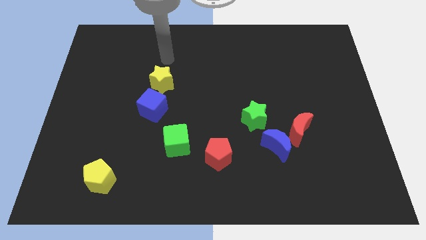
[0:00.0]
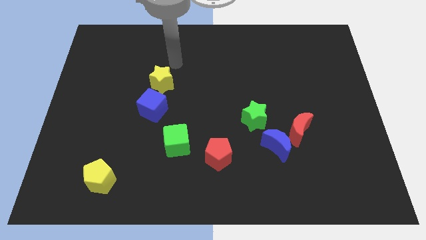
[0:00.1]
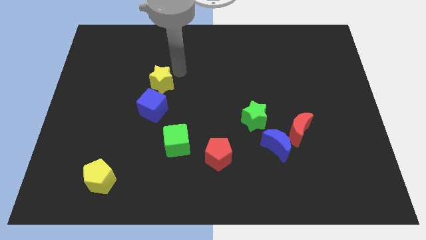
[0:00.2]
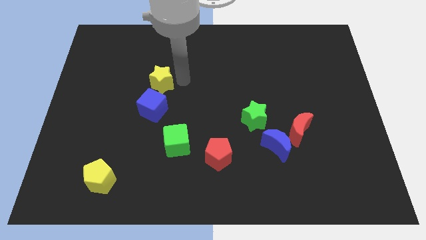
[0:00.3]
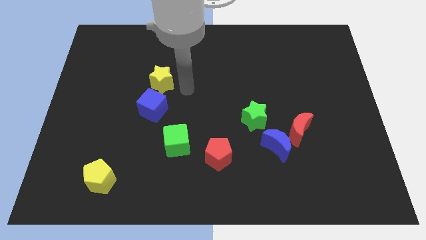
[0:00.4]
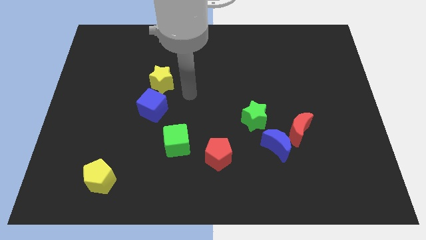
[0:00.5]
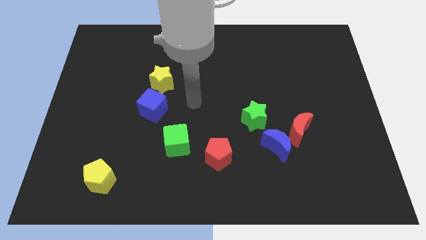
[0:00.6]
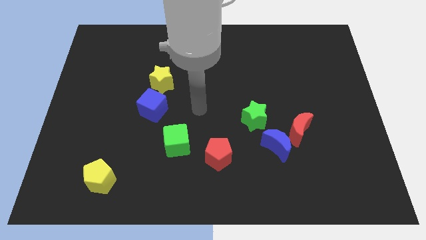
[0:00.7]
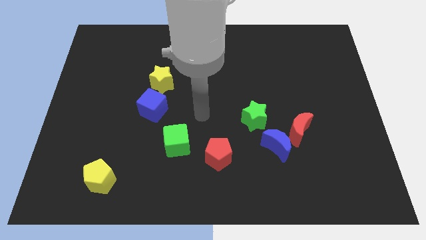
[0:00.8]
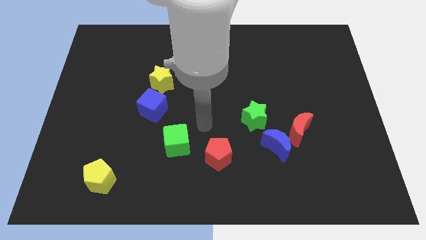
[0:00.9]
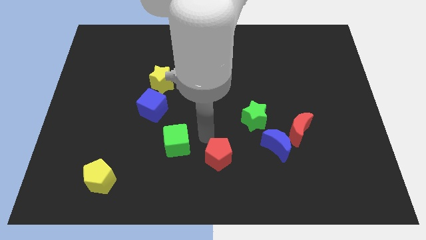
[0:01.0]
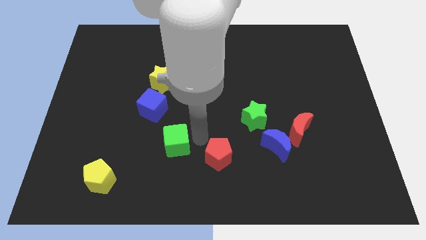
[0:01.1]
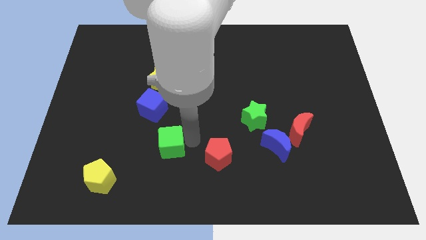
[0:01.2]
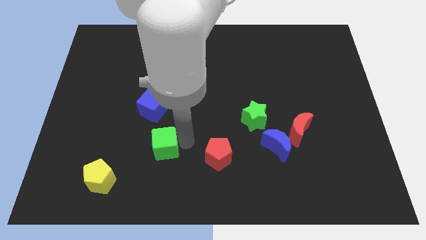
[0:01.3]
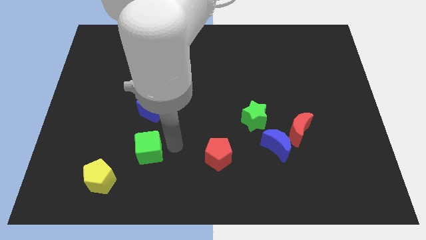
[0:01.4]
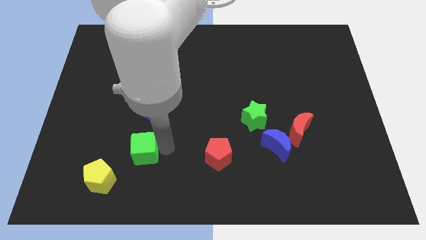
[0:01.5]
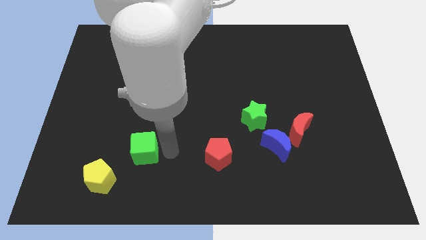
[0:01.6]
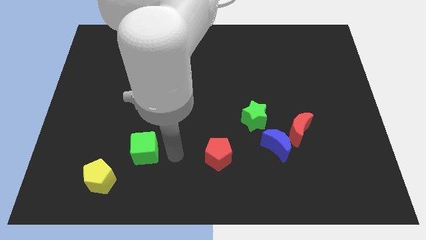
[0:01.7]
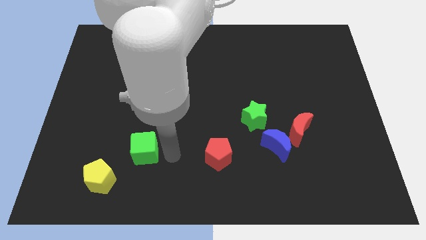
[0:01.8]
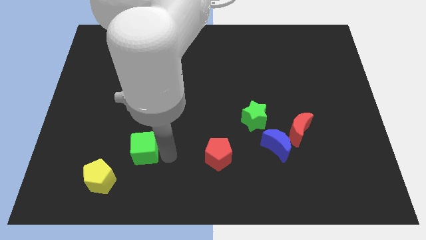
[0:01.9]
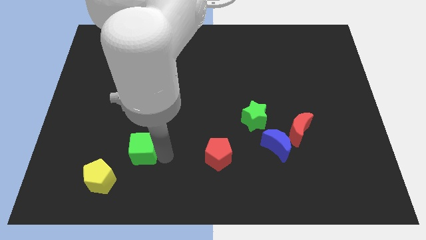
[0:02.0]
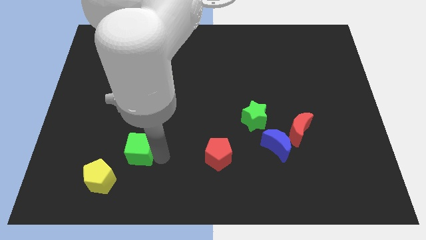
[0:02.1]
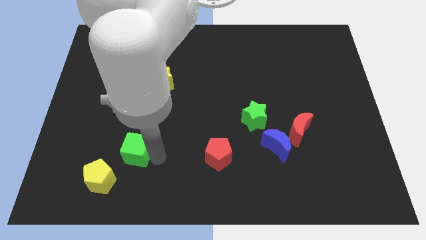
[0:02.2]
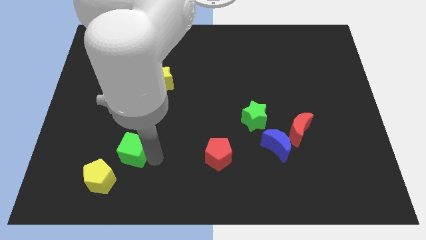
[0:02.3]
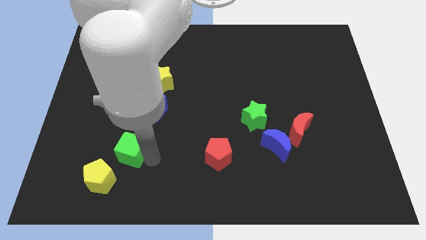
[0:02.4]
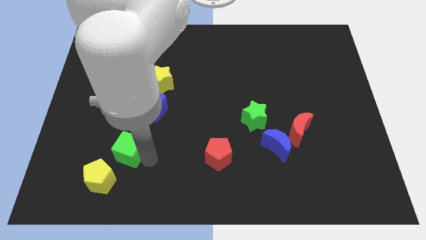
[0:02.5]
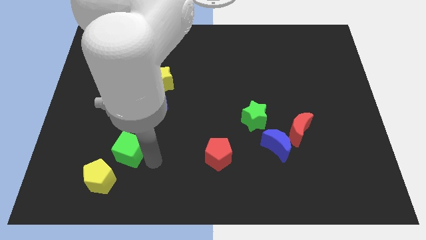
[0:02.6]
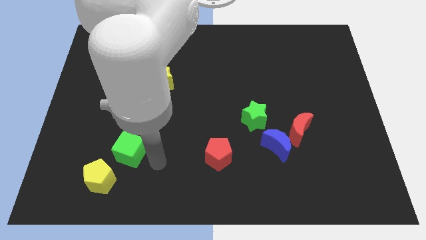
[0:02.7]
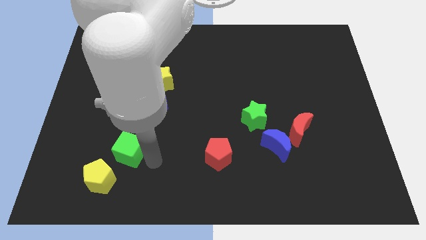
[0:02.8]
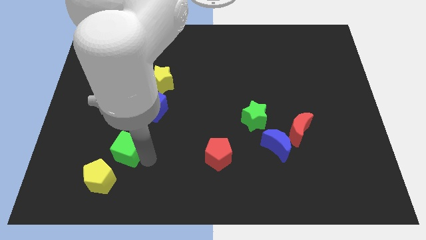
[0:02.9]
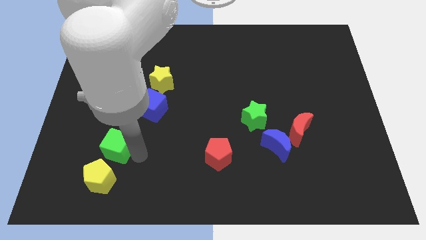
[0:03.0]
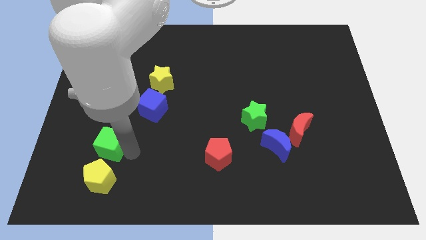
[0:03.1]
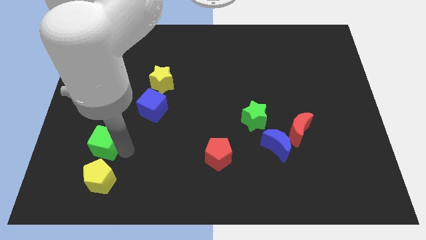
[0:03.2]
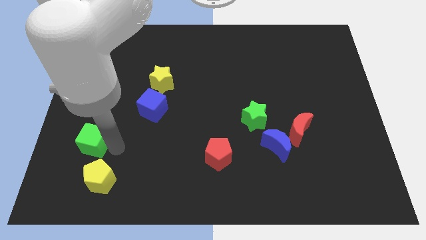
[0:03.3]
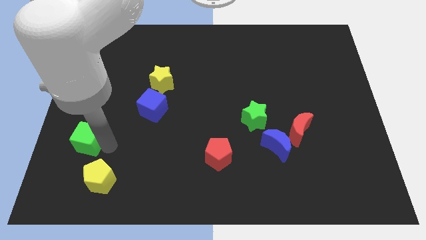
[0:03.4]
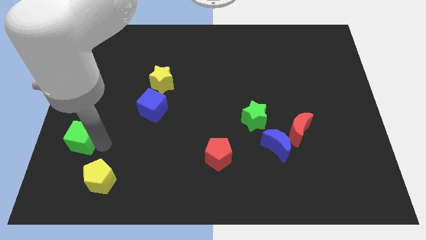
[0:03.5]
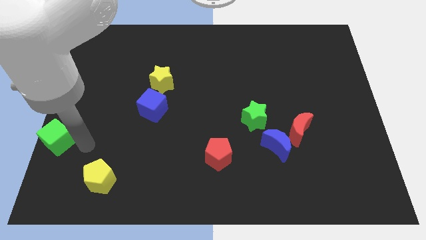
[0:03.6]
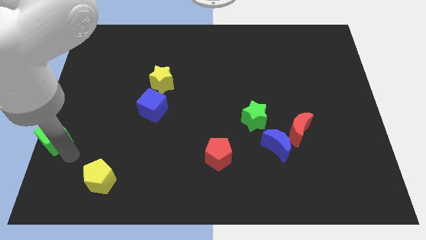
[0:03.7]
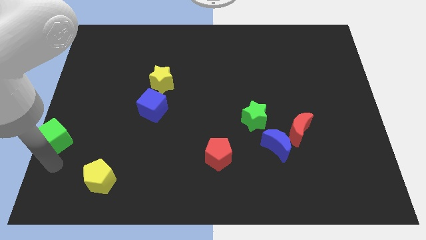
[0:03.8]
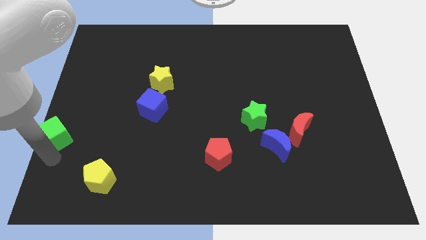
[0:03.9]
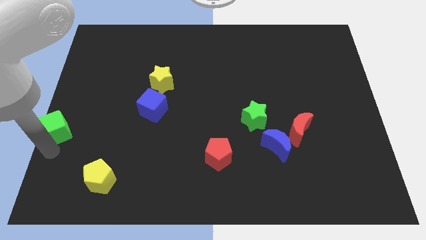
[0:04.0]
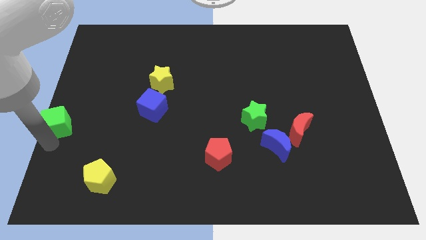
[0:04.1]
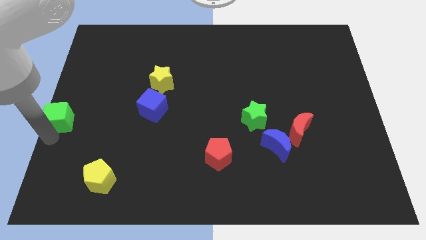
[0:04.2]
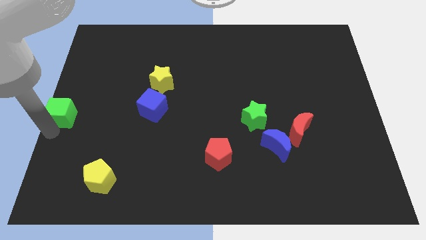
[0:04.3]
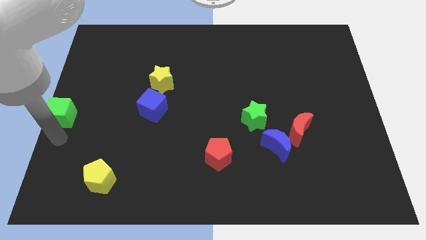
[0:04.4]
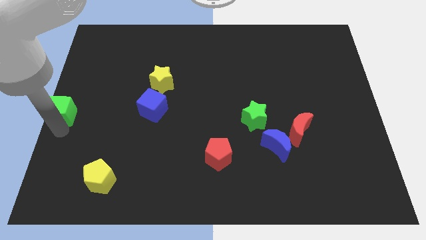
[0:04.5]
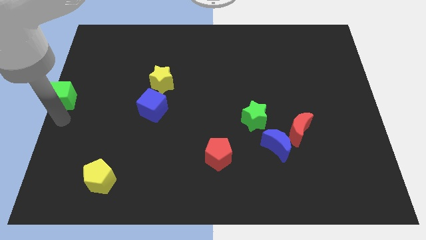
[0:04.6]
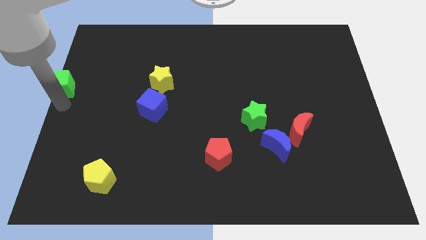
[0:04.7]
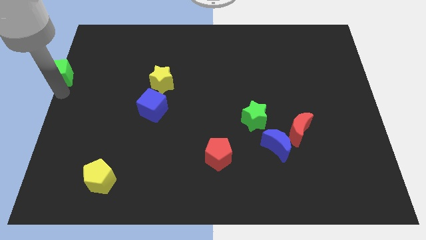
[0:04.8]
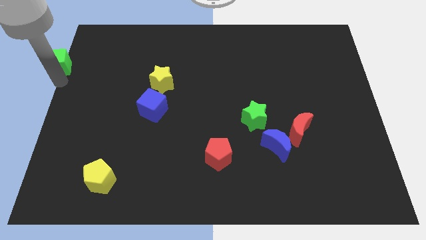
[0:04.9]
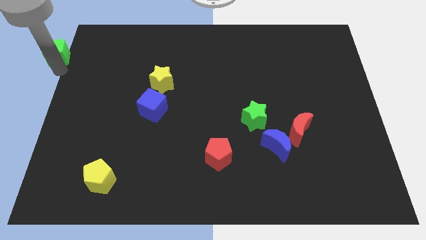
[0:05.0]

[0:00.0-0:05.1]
slide the green cube to the top left corner
